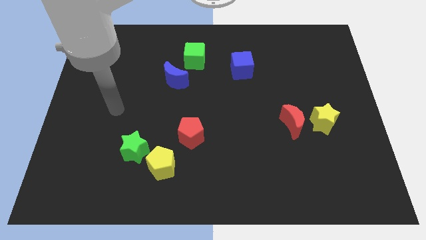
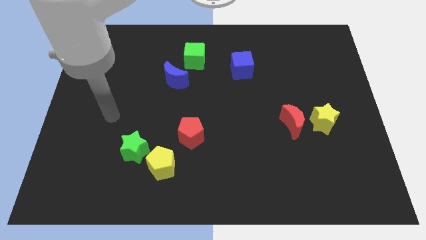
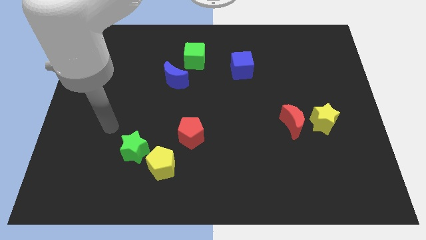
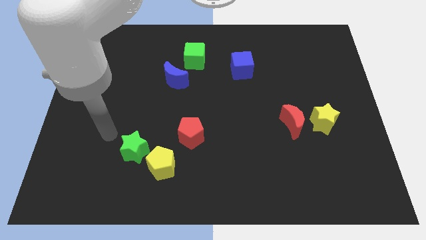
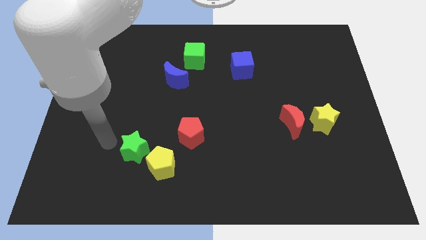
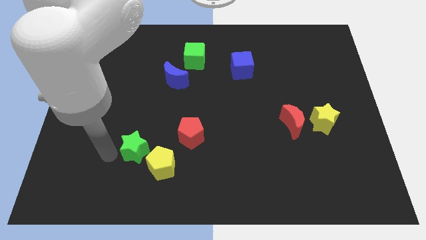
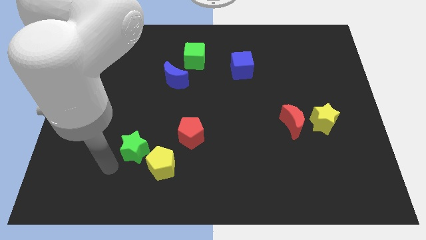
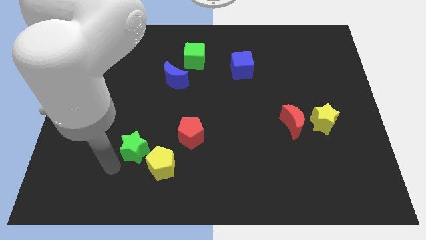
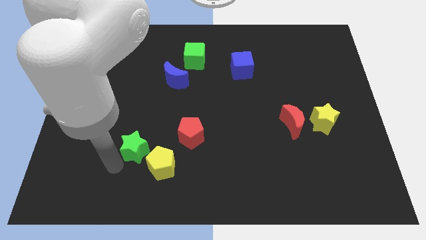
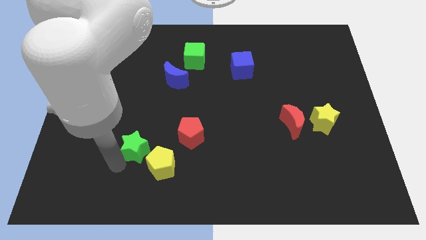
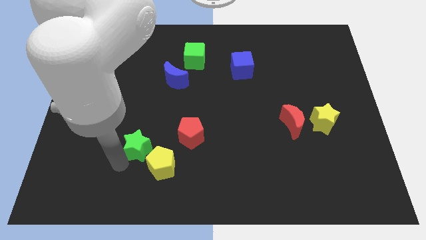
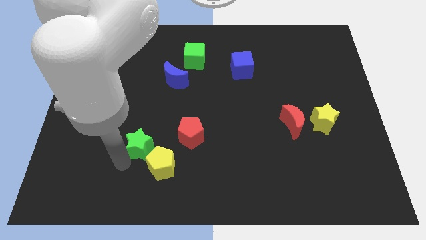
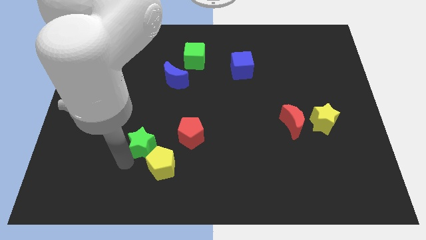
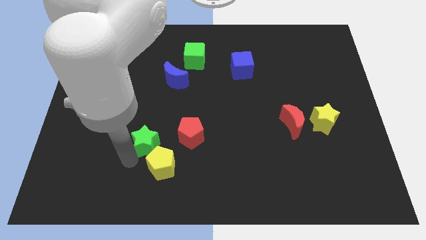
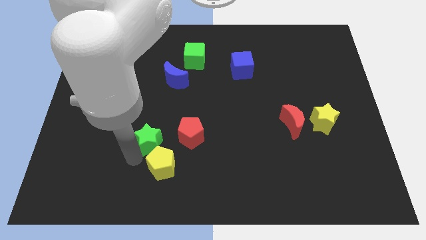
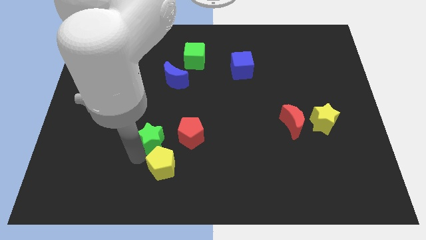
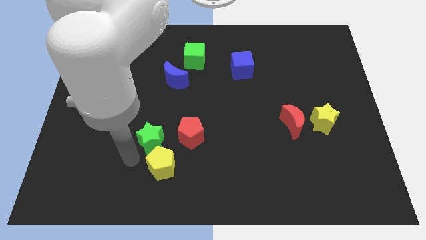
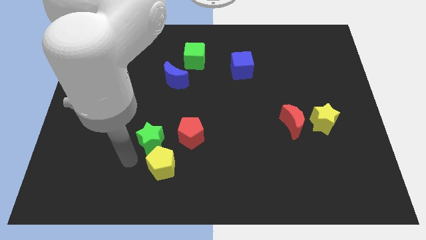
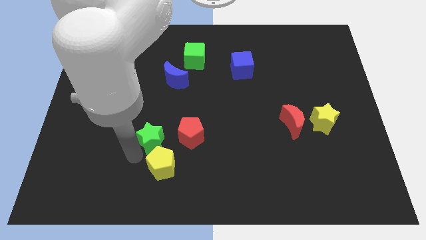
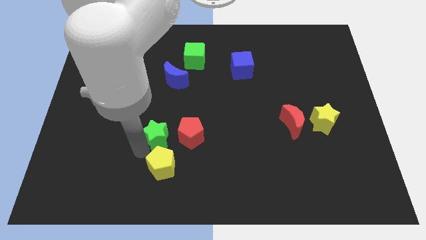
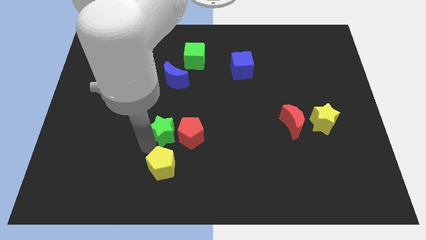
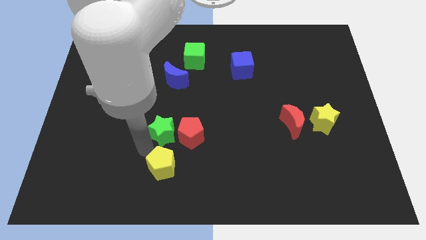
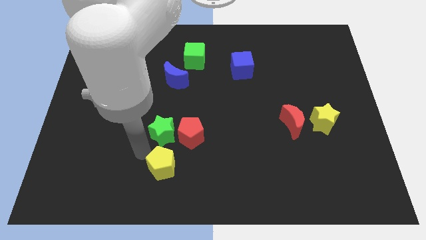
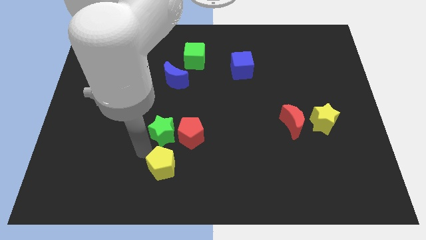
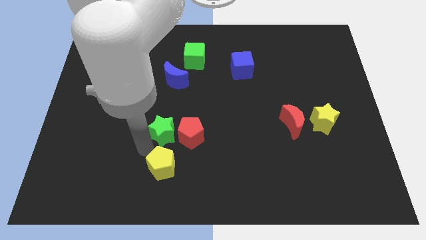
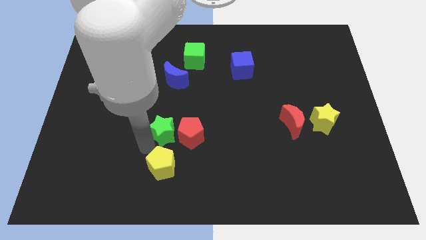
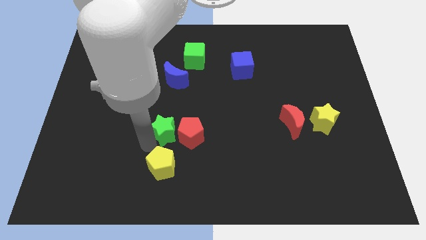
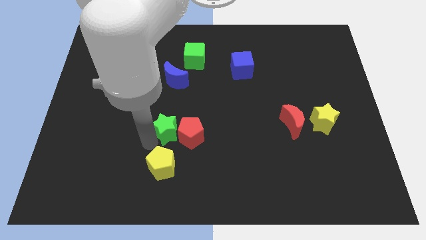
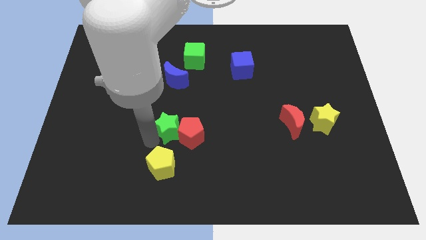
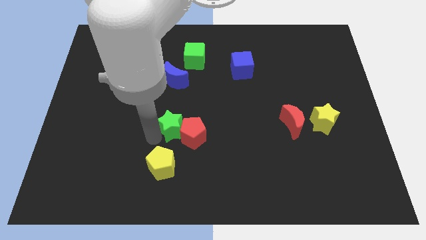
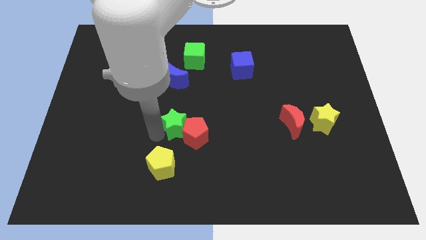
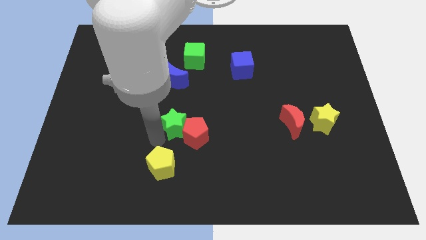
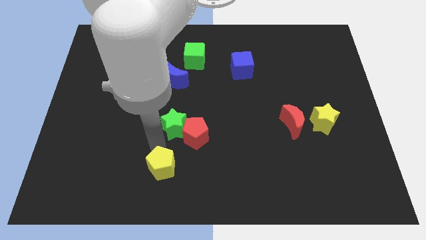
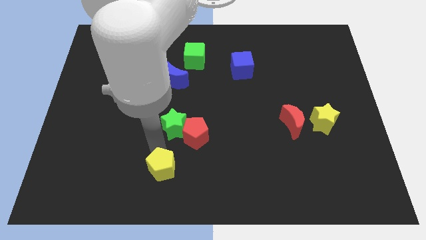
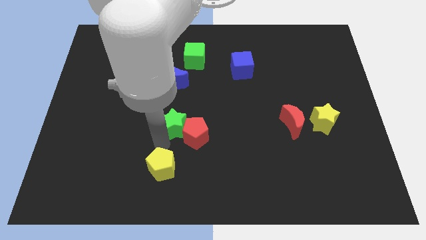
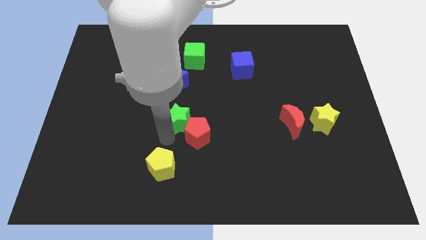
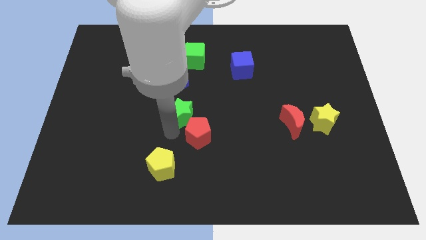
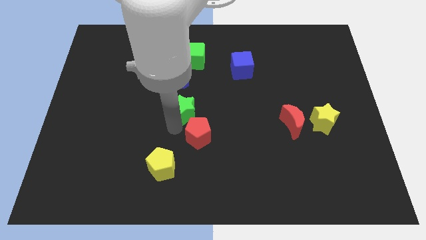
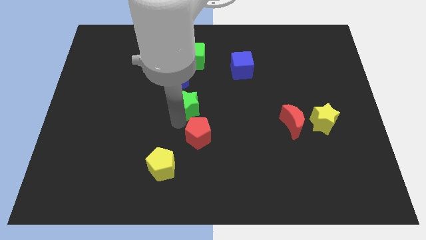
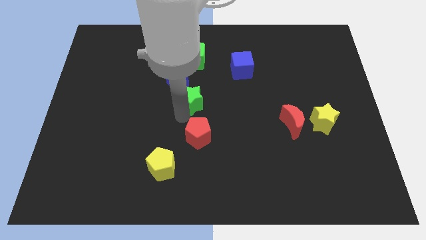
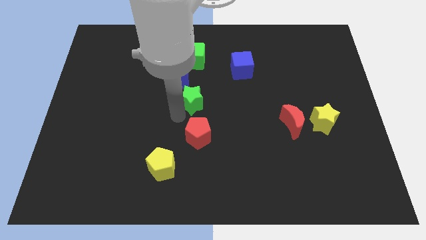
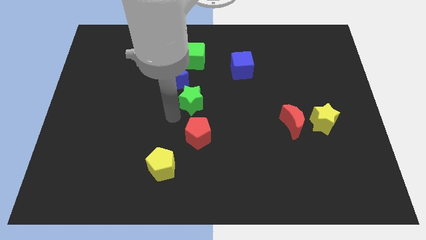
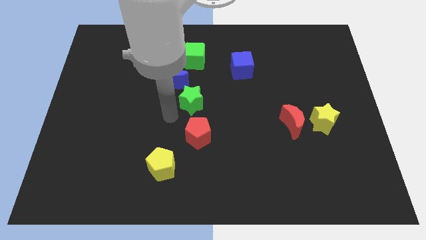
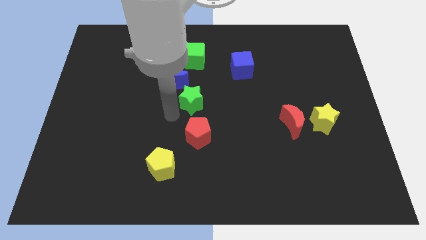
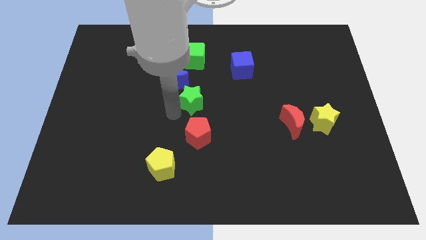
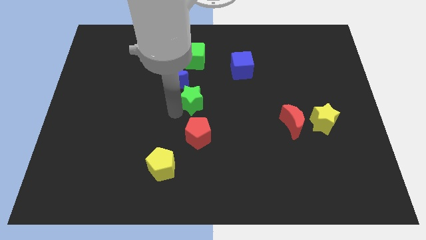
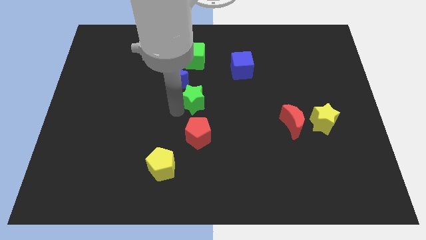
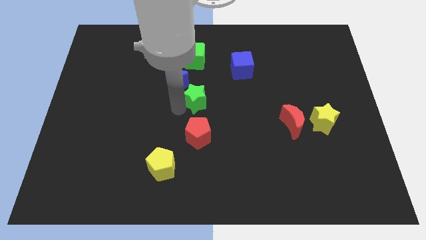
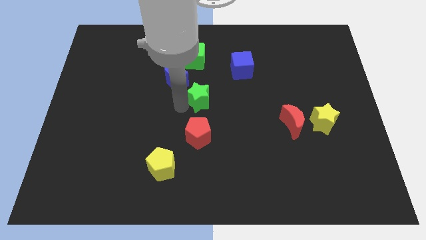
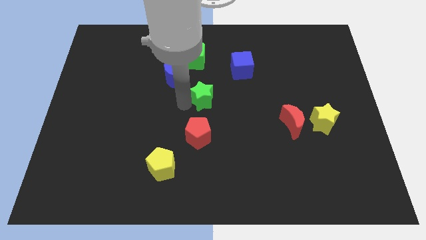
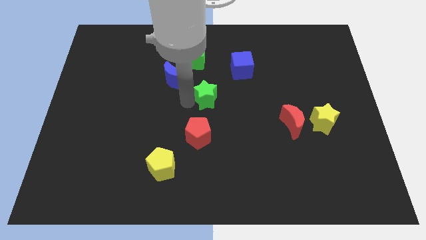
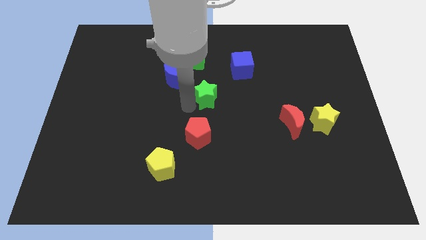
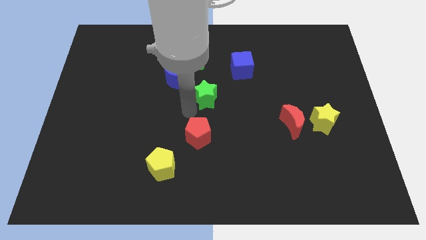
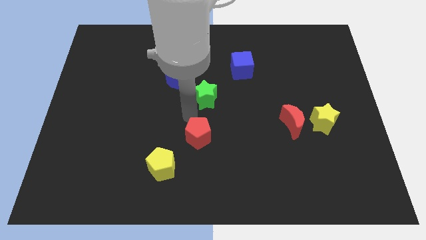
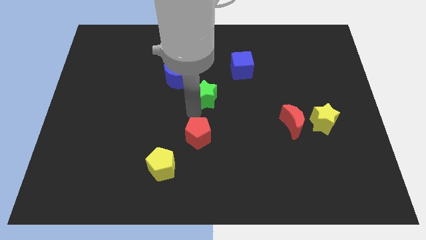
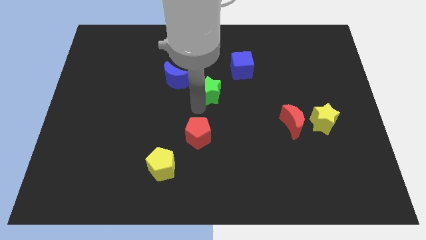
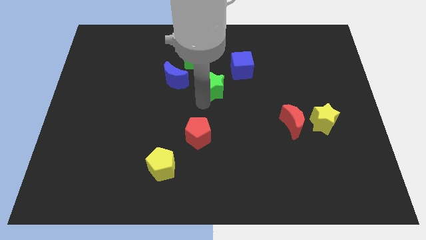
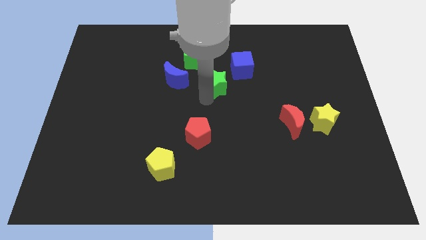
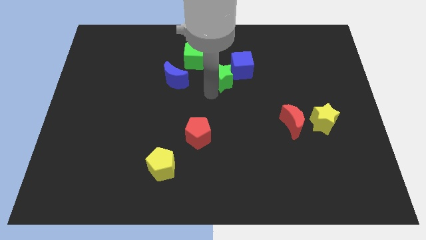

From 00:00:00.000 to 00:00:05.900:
move the green star next to the blue cube
